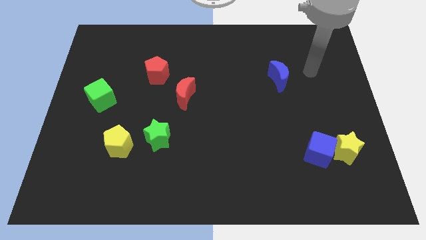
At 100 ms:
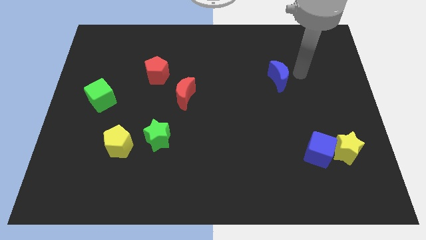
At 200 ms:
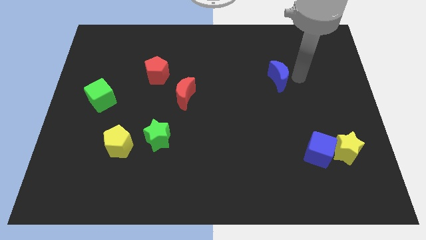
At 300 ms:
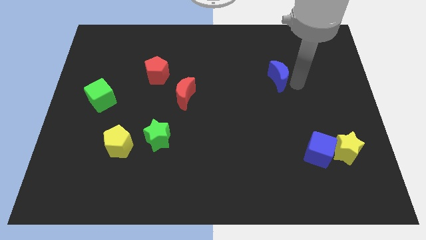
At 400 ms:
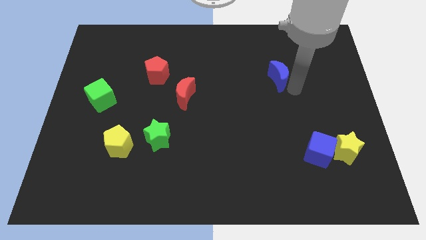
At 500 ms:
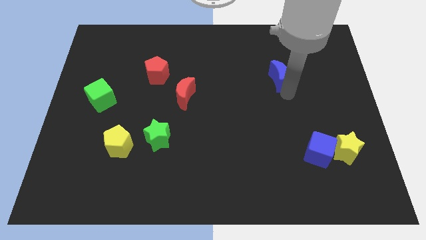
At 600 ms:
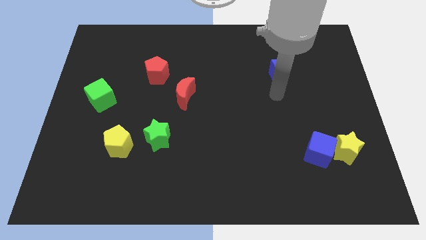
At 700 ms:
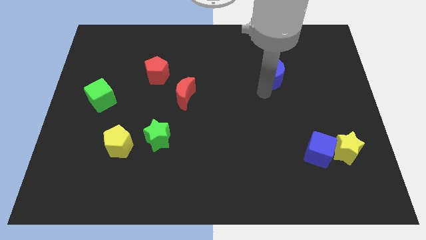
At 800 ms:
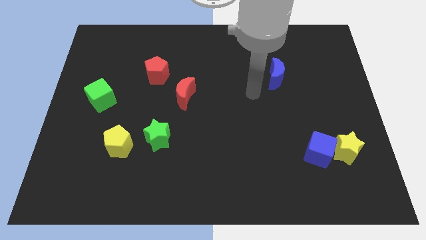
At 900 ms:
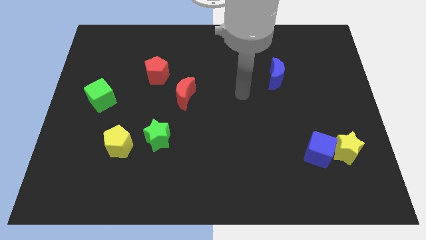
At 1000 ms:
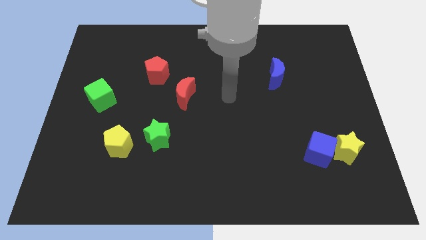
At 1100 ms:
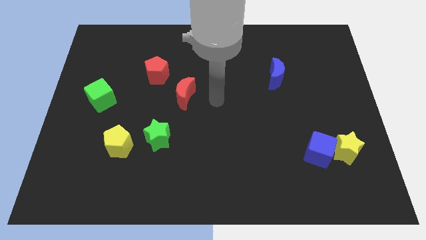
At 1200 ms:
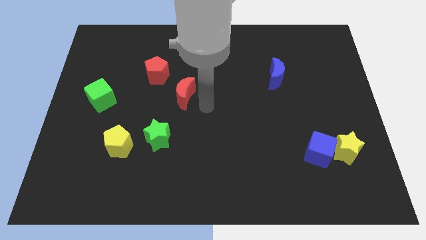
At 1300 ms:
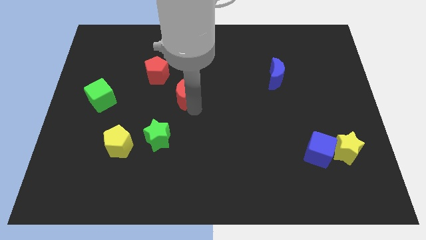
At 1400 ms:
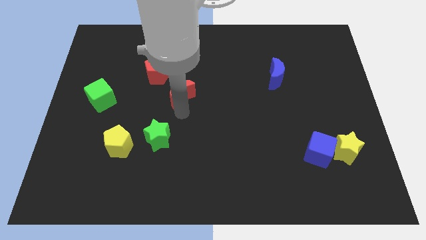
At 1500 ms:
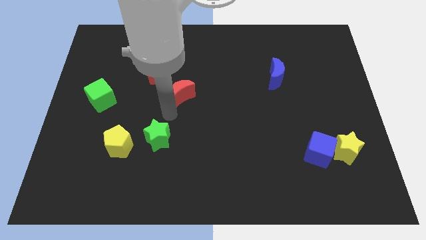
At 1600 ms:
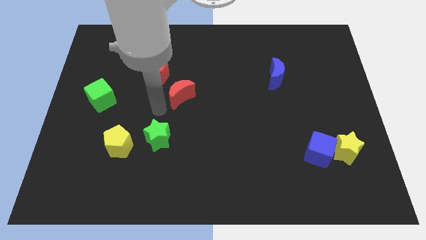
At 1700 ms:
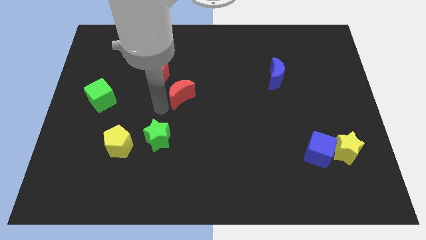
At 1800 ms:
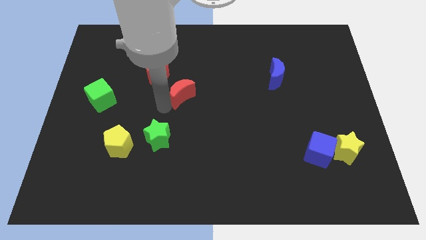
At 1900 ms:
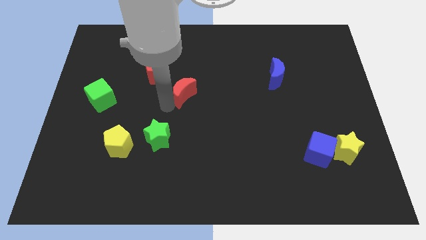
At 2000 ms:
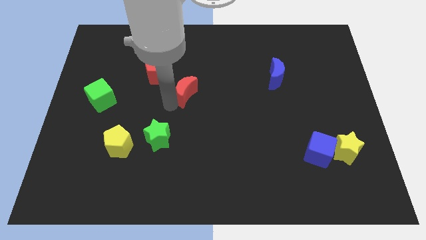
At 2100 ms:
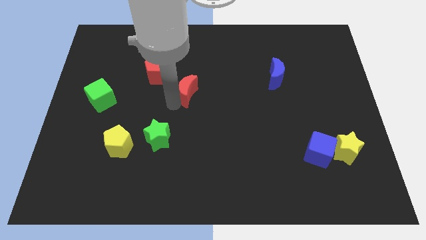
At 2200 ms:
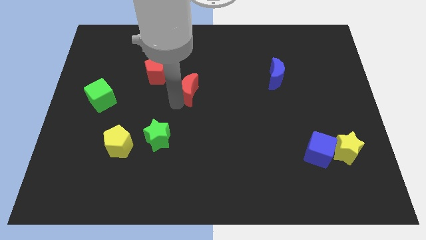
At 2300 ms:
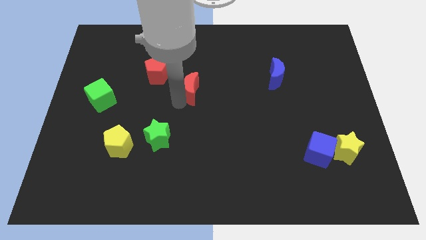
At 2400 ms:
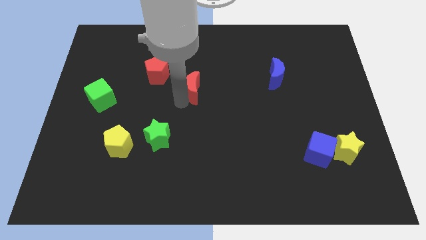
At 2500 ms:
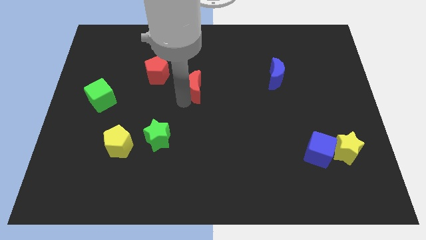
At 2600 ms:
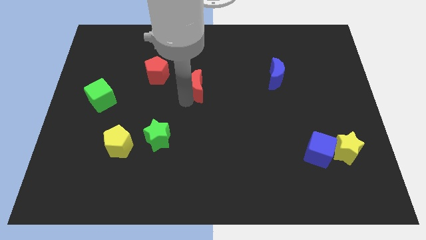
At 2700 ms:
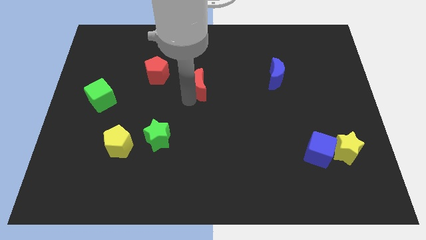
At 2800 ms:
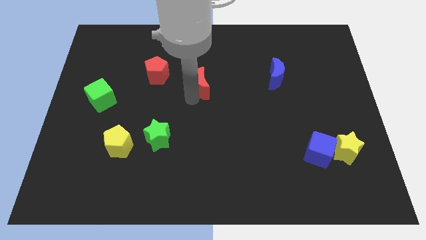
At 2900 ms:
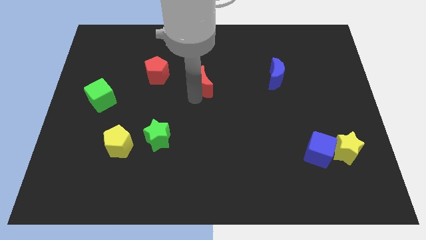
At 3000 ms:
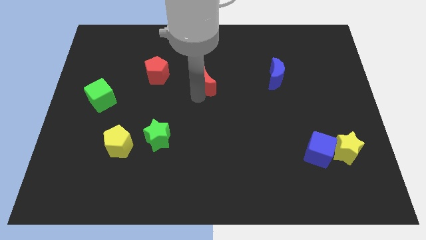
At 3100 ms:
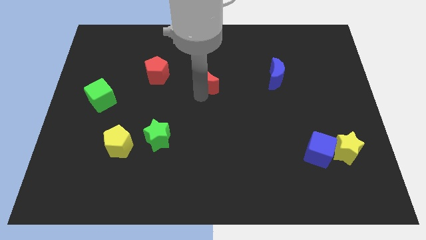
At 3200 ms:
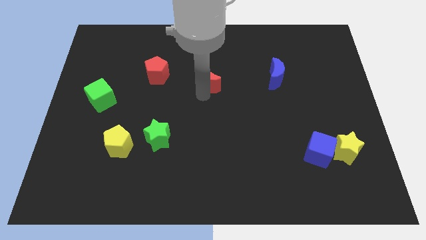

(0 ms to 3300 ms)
slide the red moon a bit upwards and then to the right

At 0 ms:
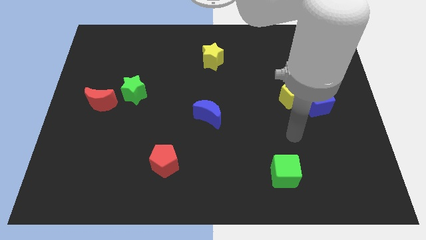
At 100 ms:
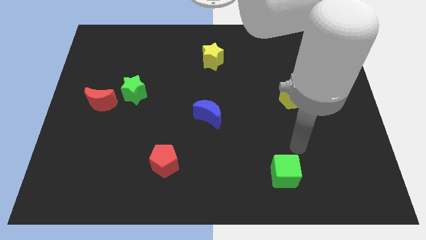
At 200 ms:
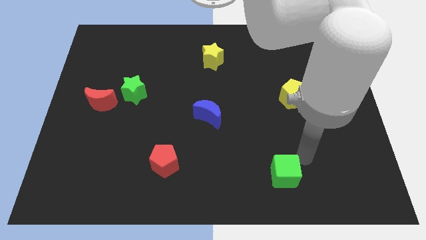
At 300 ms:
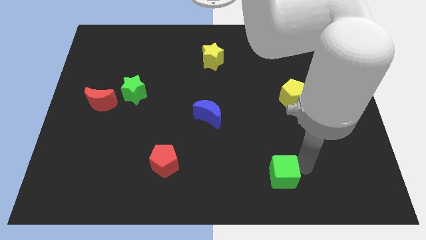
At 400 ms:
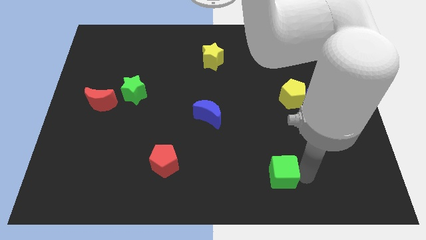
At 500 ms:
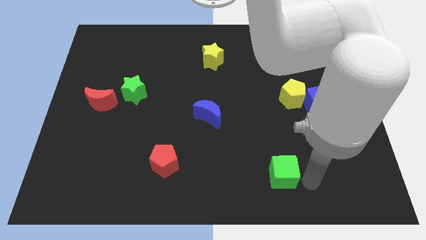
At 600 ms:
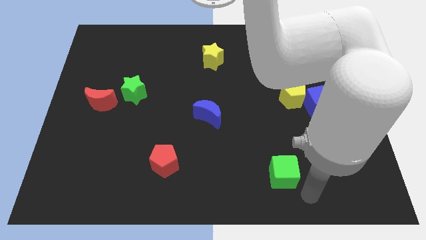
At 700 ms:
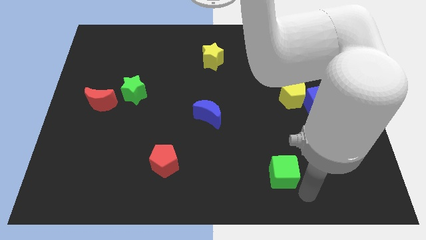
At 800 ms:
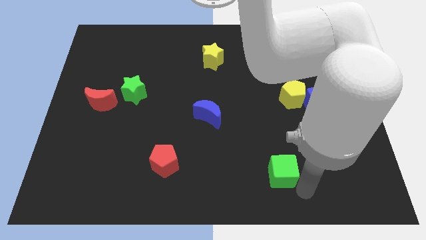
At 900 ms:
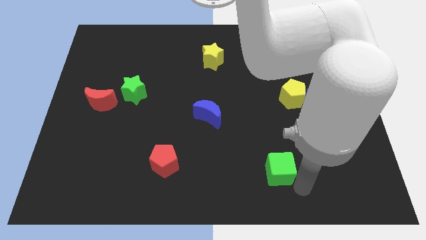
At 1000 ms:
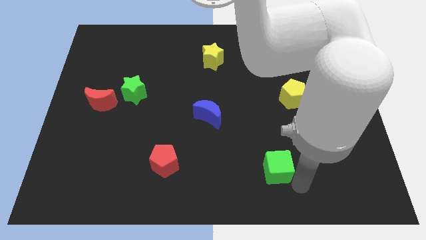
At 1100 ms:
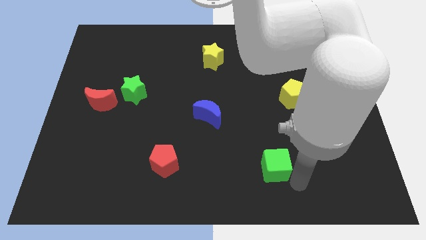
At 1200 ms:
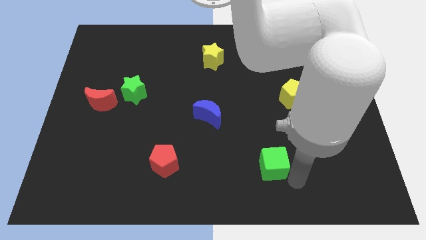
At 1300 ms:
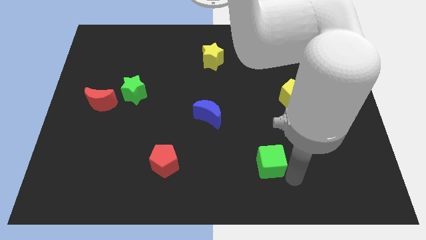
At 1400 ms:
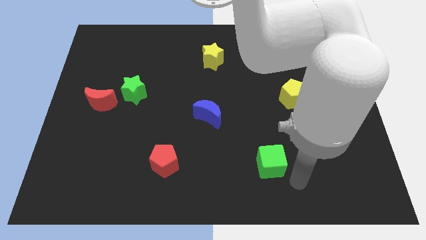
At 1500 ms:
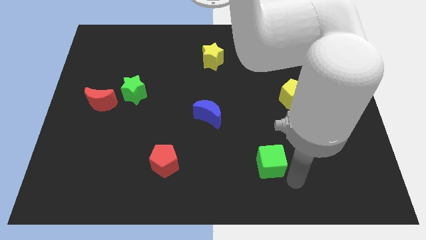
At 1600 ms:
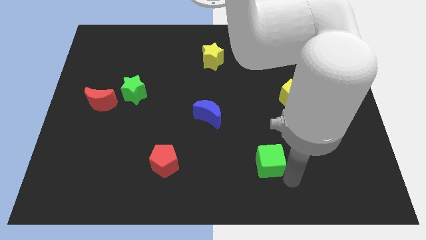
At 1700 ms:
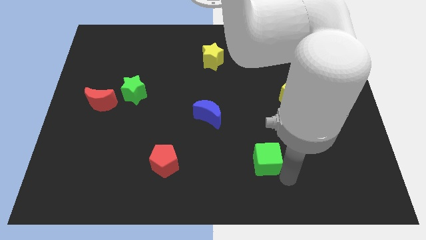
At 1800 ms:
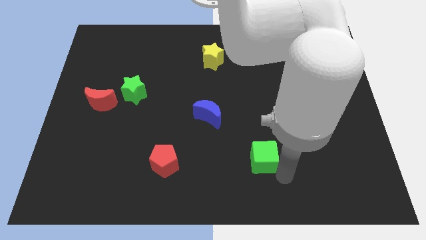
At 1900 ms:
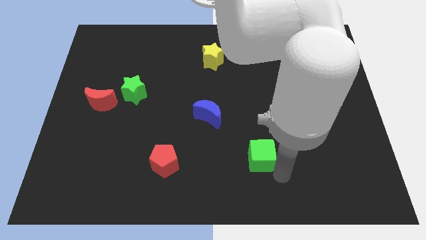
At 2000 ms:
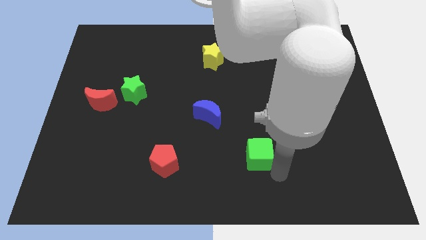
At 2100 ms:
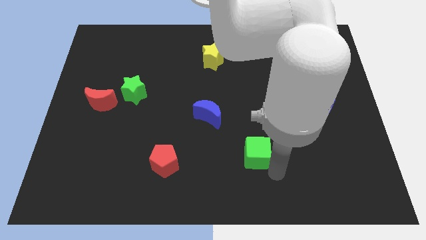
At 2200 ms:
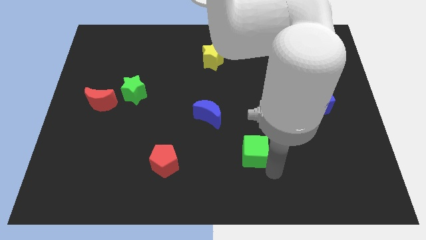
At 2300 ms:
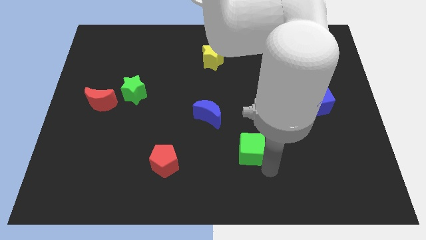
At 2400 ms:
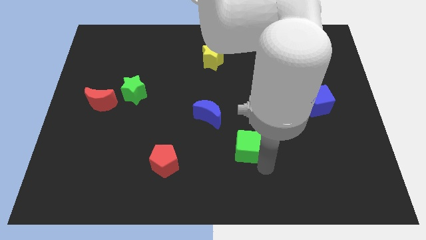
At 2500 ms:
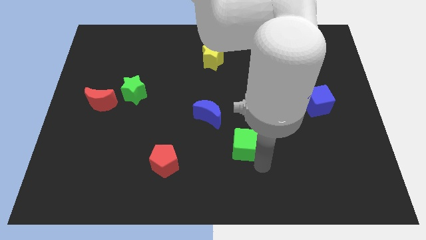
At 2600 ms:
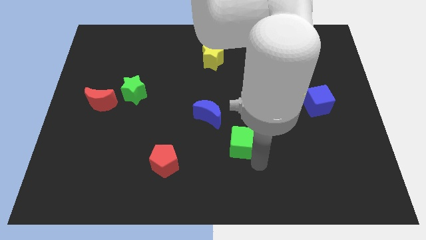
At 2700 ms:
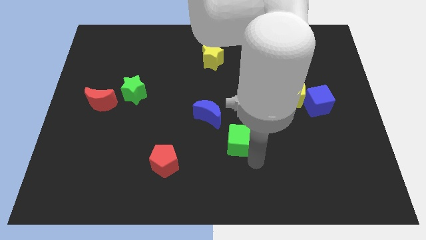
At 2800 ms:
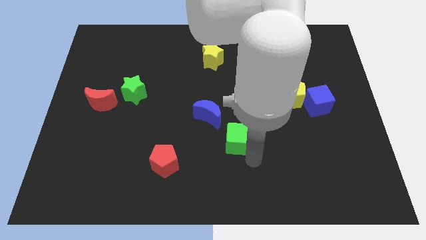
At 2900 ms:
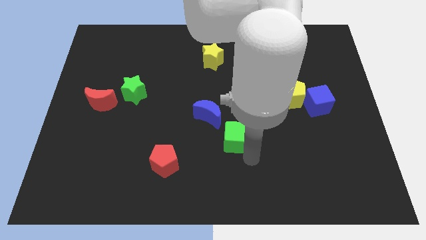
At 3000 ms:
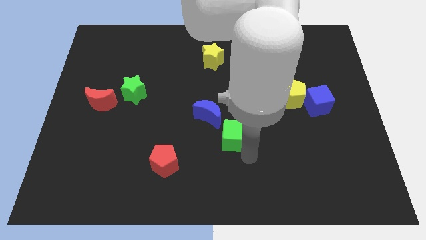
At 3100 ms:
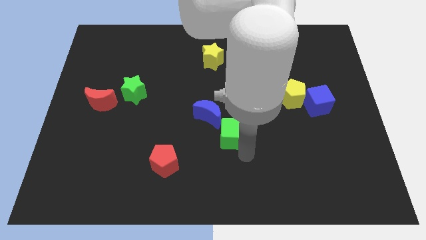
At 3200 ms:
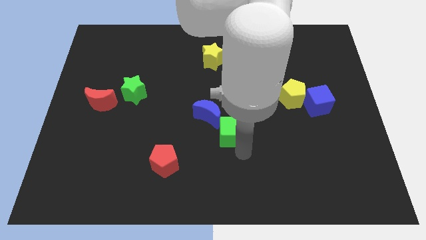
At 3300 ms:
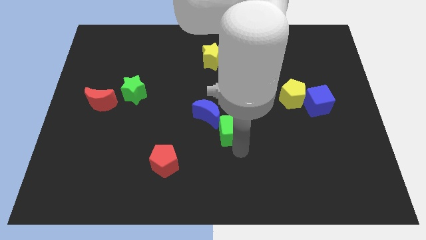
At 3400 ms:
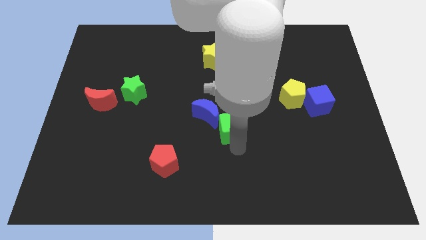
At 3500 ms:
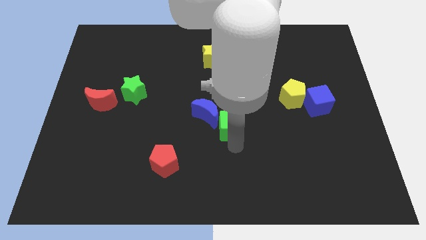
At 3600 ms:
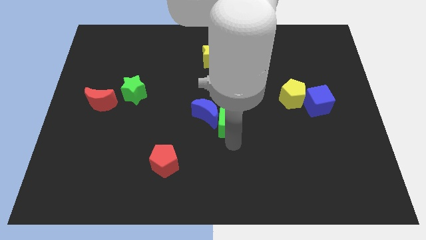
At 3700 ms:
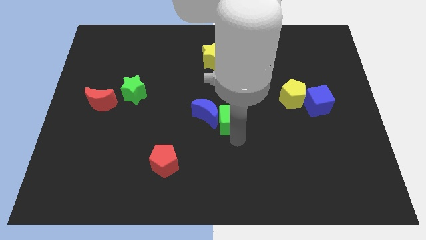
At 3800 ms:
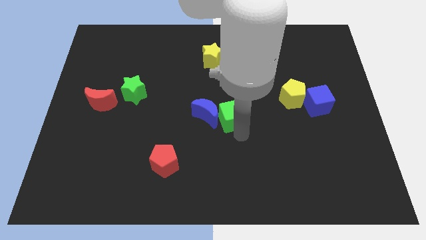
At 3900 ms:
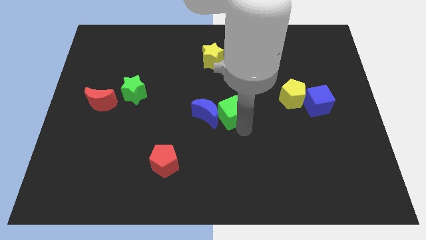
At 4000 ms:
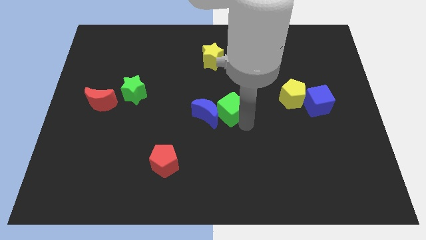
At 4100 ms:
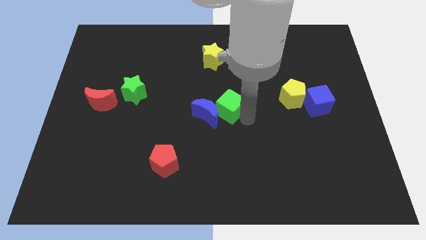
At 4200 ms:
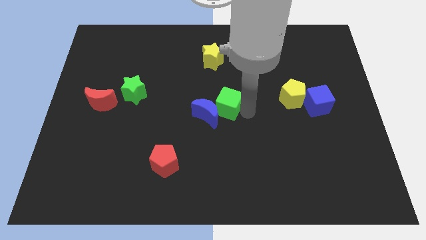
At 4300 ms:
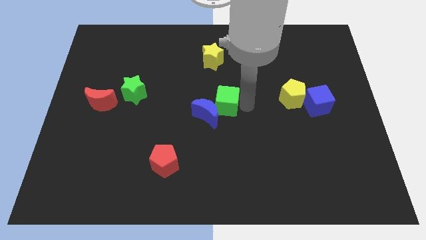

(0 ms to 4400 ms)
slide the green cube upwards and to the left

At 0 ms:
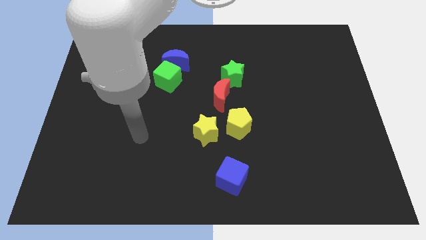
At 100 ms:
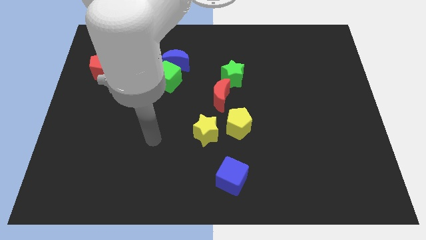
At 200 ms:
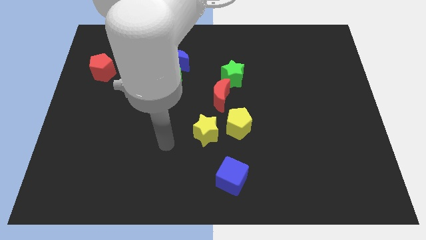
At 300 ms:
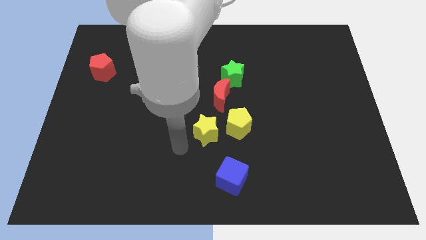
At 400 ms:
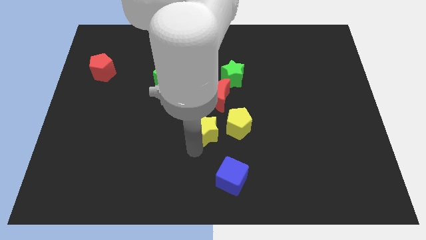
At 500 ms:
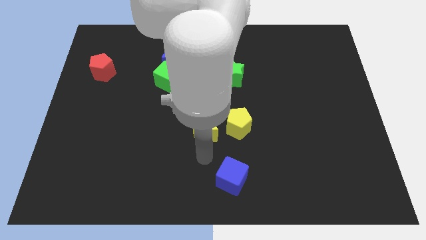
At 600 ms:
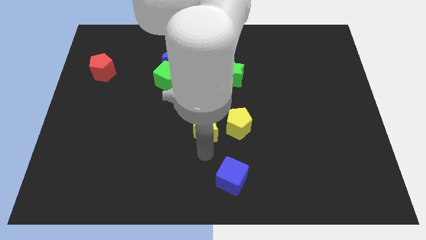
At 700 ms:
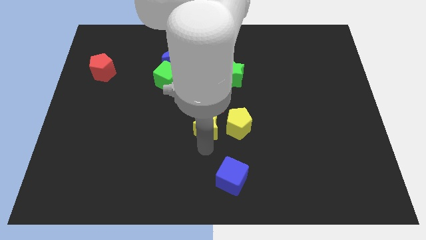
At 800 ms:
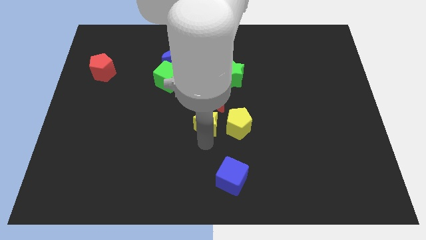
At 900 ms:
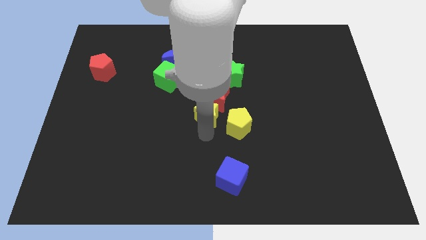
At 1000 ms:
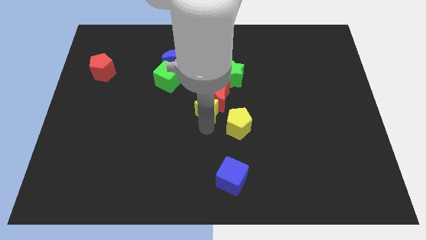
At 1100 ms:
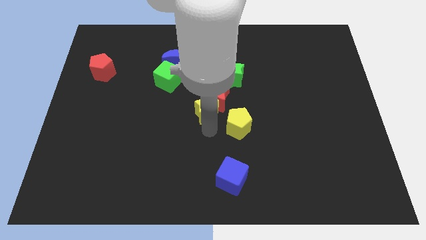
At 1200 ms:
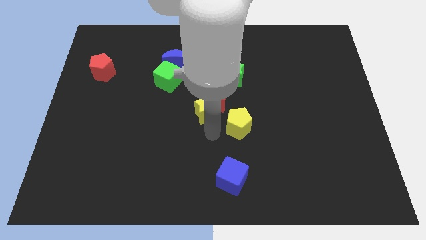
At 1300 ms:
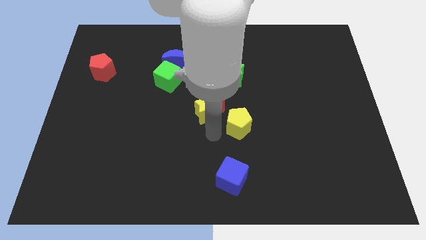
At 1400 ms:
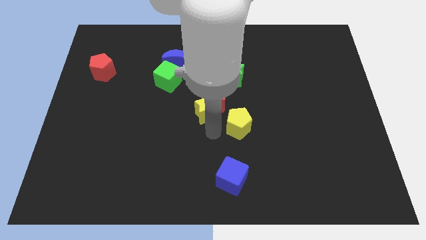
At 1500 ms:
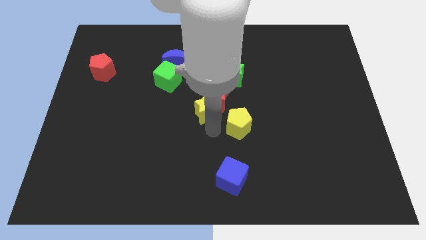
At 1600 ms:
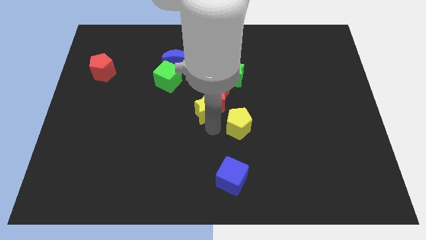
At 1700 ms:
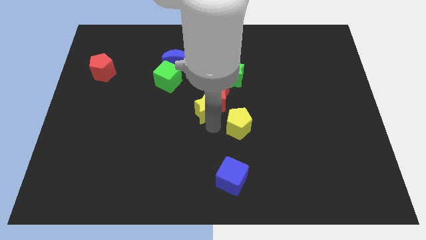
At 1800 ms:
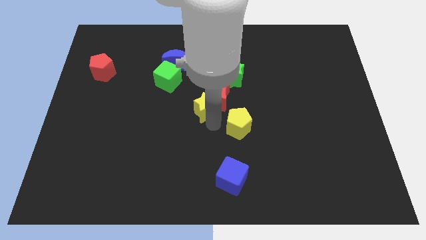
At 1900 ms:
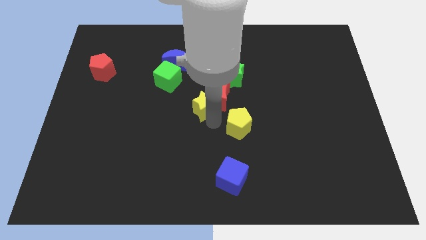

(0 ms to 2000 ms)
slide the yellow star upwards slightly
